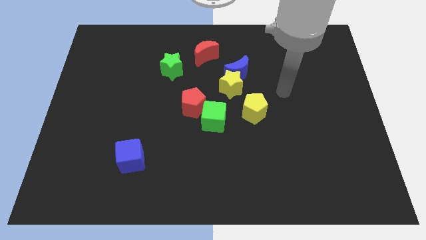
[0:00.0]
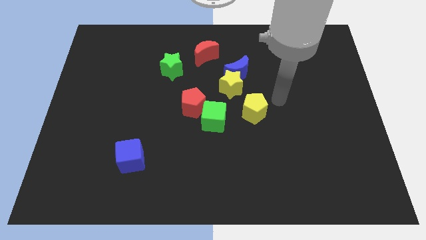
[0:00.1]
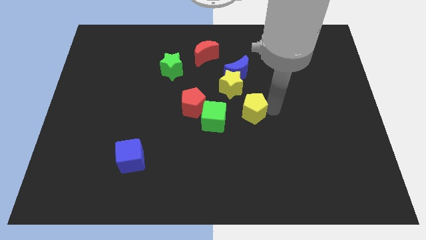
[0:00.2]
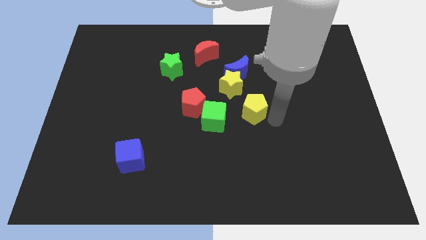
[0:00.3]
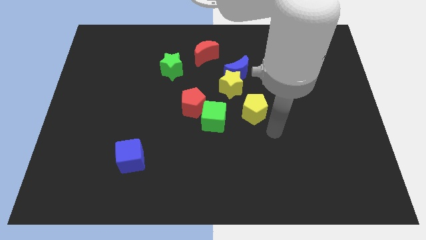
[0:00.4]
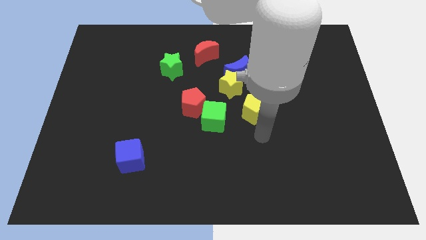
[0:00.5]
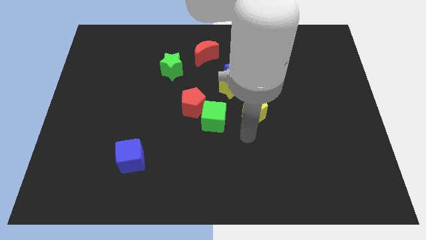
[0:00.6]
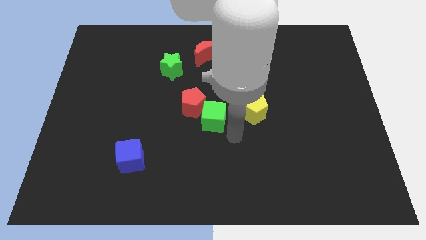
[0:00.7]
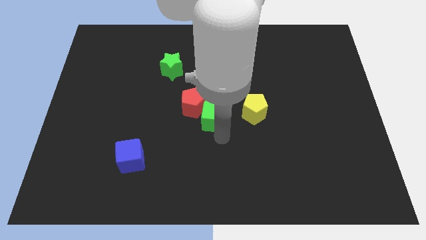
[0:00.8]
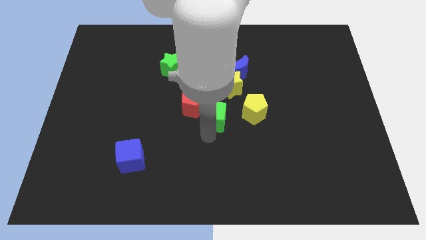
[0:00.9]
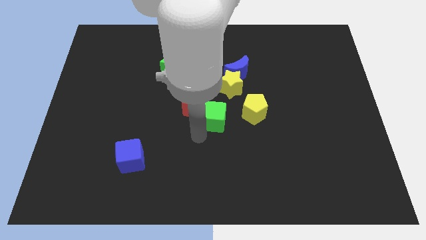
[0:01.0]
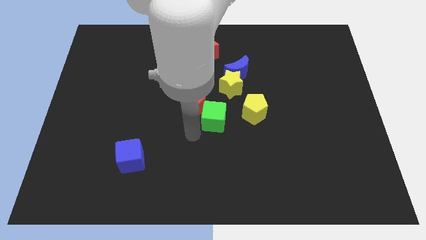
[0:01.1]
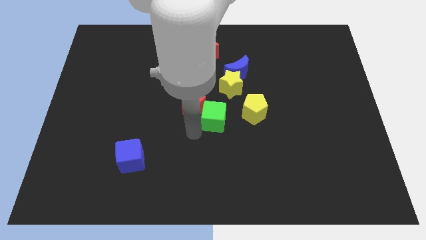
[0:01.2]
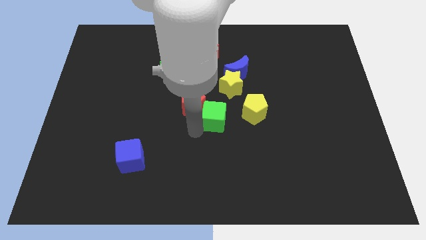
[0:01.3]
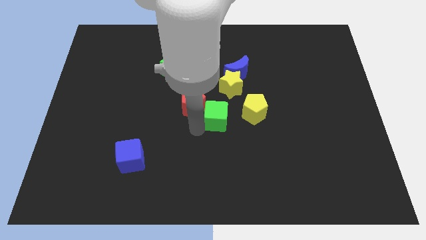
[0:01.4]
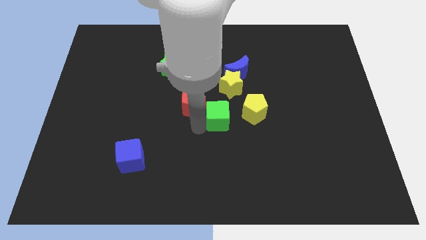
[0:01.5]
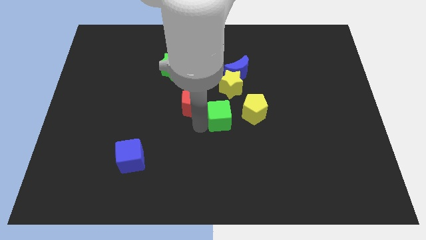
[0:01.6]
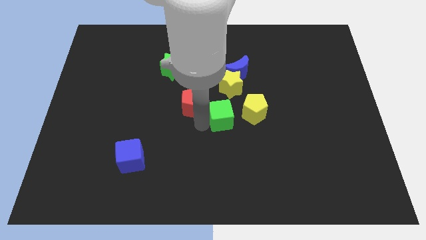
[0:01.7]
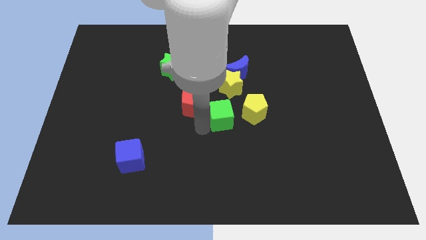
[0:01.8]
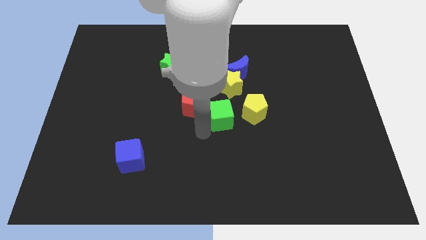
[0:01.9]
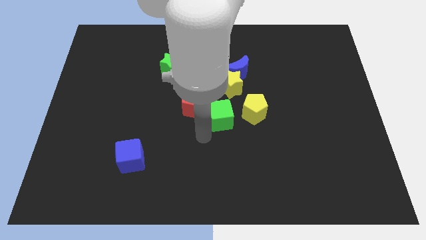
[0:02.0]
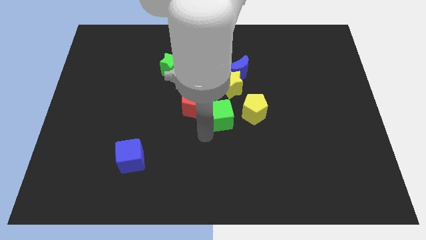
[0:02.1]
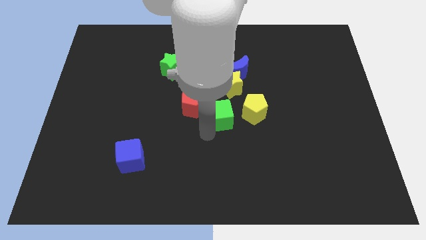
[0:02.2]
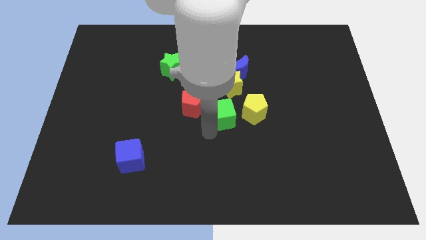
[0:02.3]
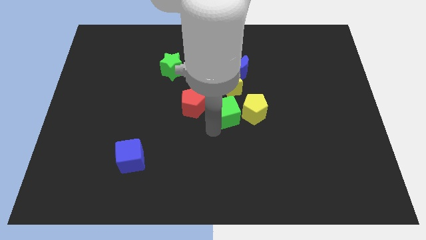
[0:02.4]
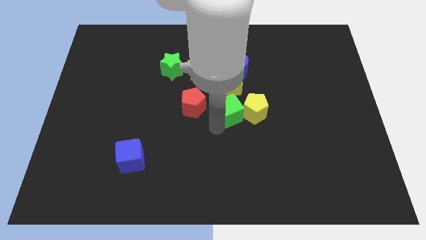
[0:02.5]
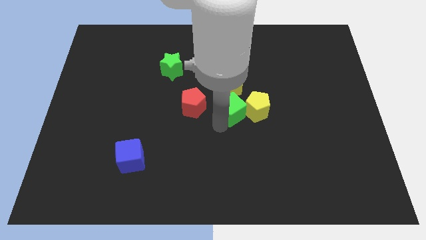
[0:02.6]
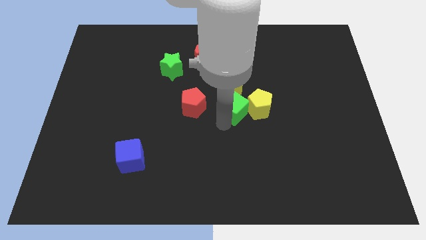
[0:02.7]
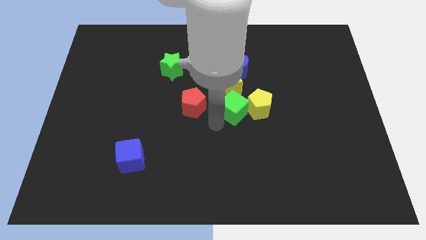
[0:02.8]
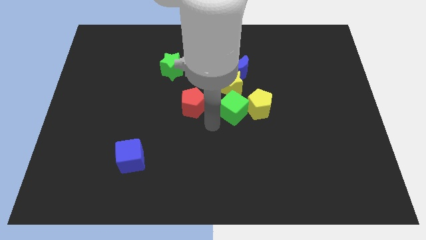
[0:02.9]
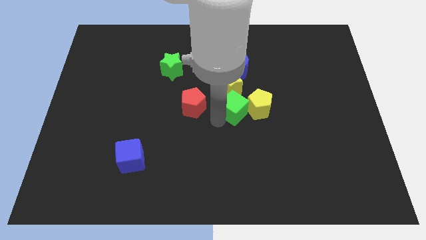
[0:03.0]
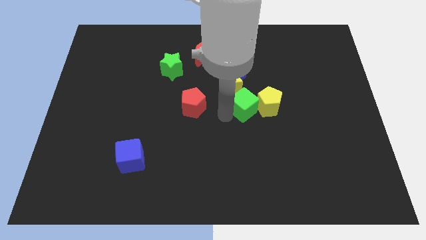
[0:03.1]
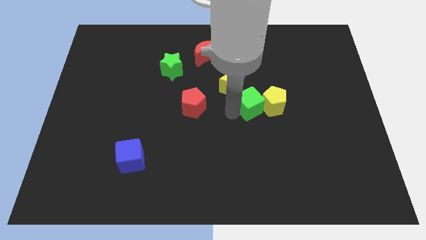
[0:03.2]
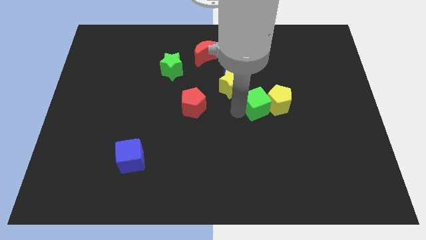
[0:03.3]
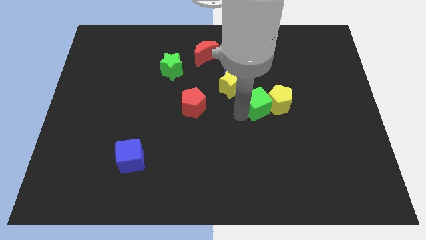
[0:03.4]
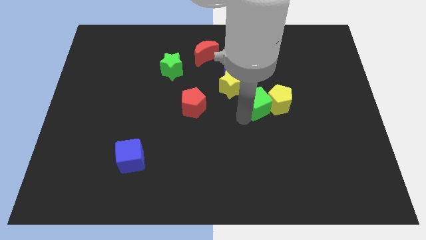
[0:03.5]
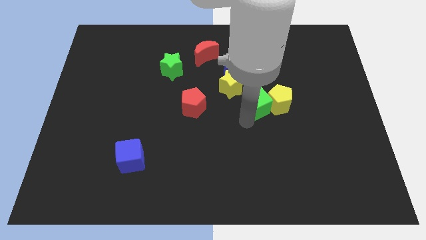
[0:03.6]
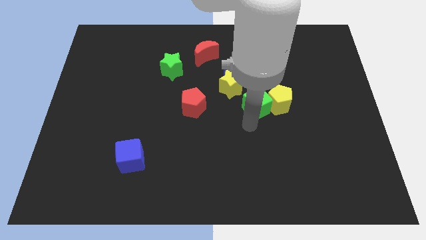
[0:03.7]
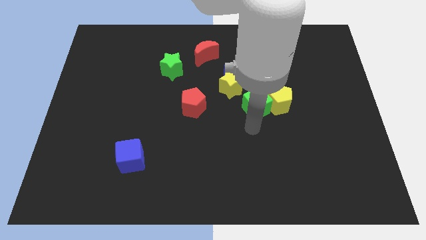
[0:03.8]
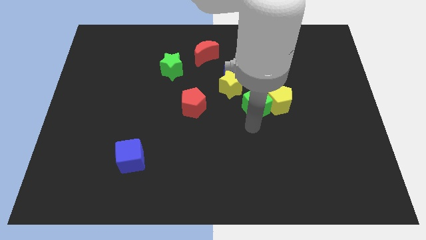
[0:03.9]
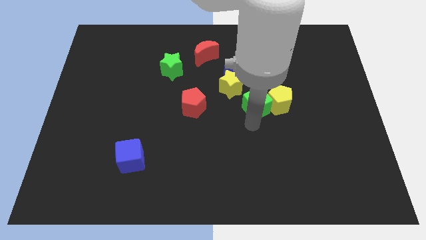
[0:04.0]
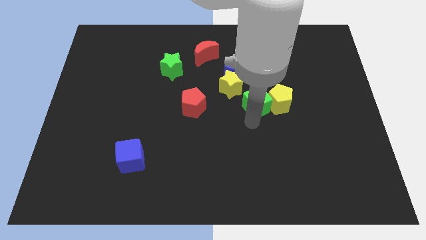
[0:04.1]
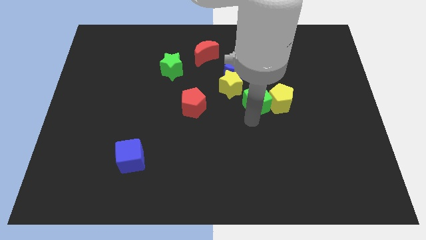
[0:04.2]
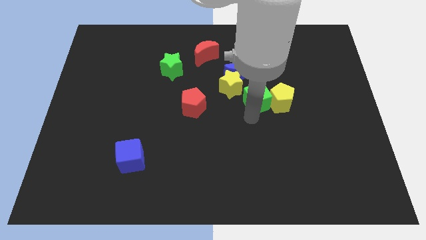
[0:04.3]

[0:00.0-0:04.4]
push the green cube right of the yellow star

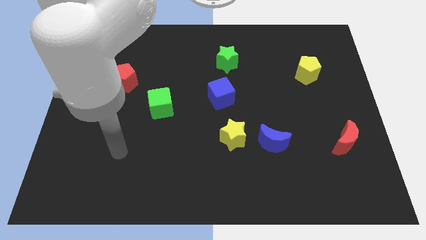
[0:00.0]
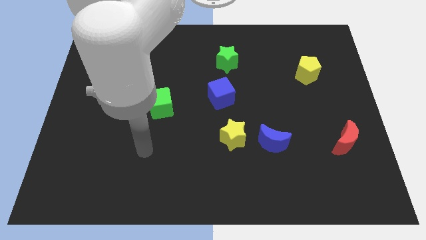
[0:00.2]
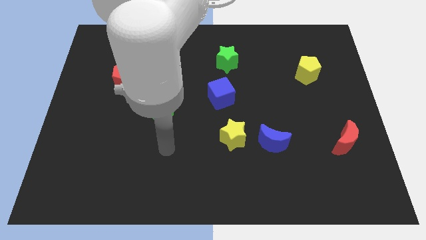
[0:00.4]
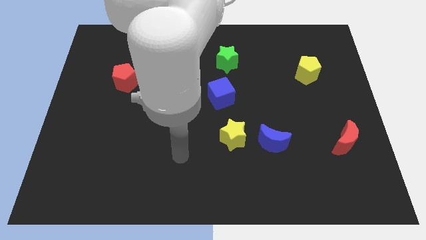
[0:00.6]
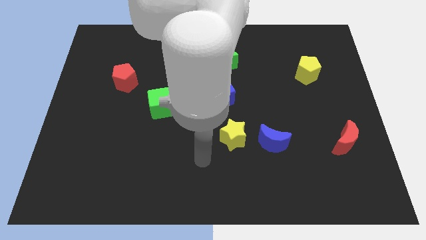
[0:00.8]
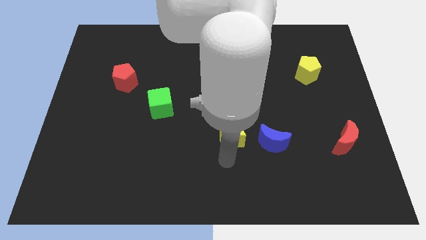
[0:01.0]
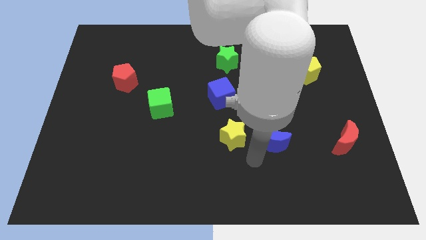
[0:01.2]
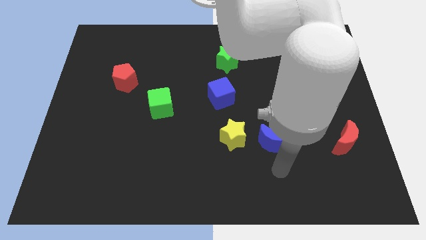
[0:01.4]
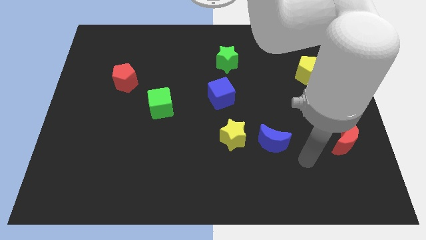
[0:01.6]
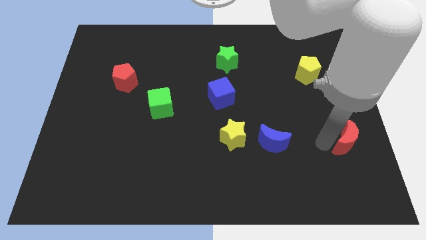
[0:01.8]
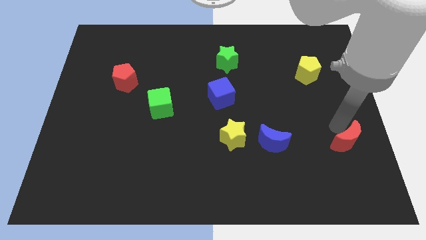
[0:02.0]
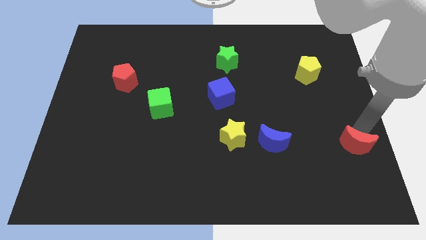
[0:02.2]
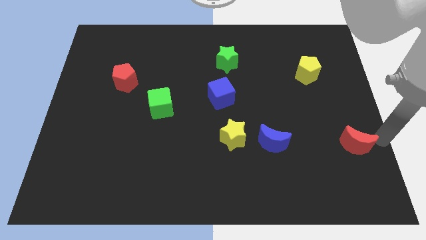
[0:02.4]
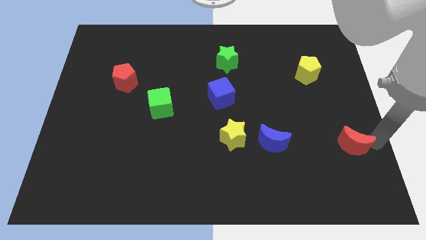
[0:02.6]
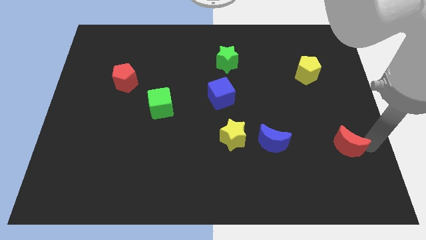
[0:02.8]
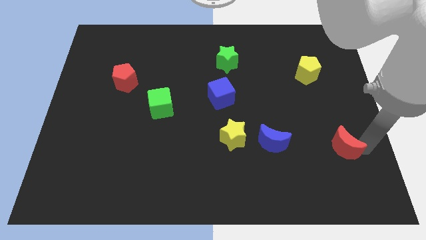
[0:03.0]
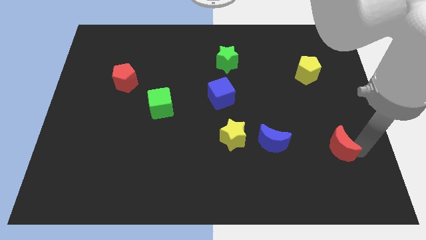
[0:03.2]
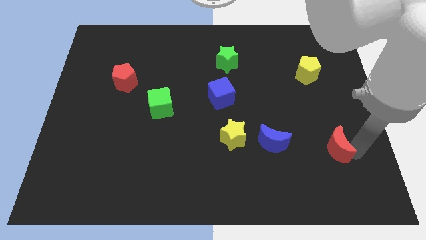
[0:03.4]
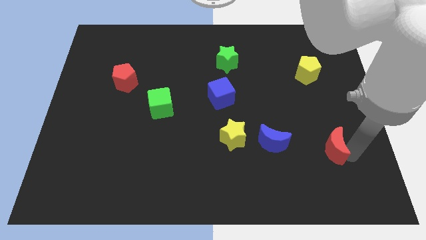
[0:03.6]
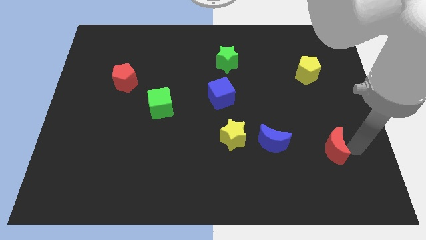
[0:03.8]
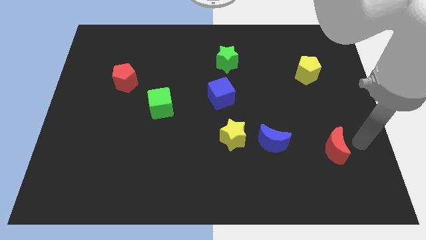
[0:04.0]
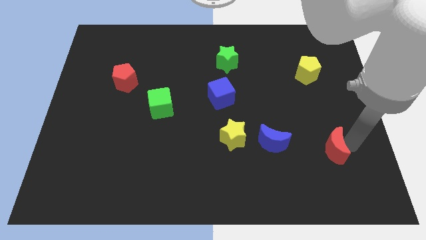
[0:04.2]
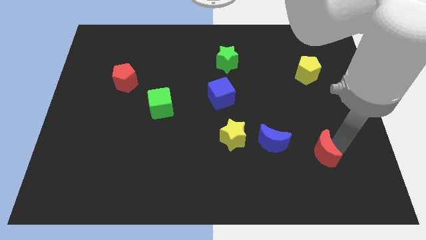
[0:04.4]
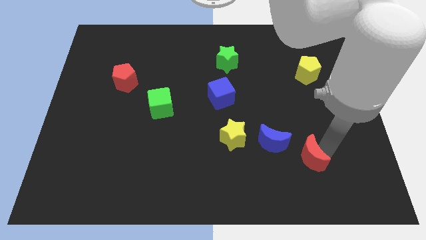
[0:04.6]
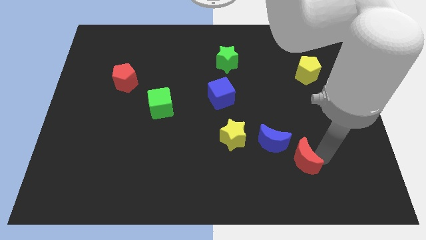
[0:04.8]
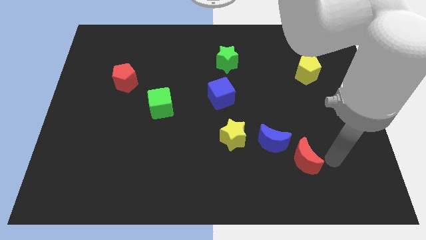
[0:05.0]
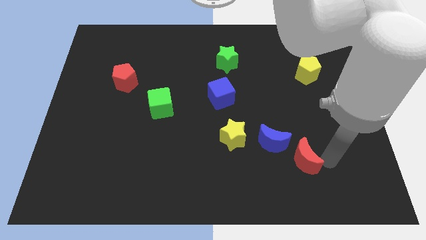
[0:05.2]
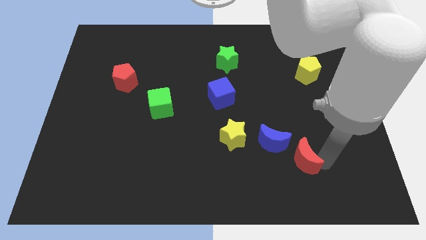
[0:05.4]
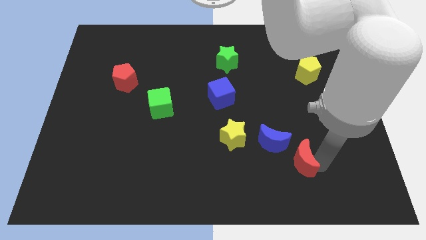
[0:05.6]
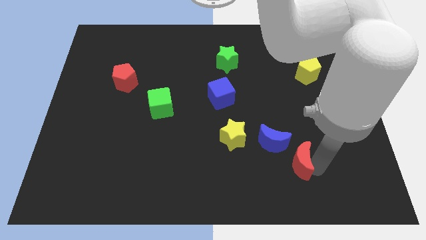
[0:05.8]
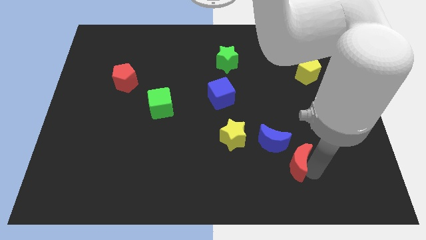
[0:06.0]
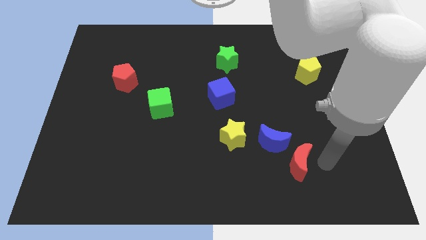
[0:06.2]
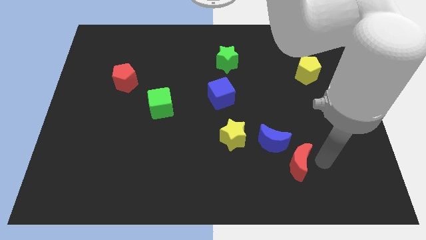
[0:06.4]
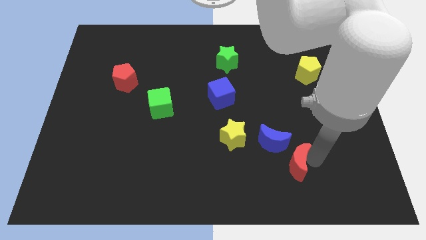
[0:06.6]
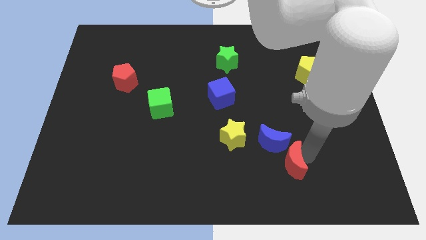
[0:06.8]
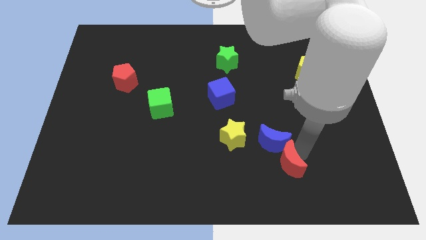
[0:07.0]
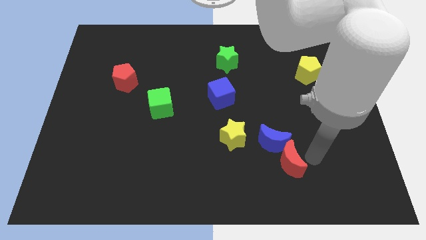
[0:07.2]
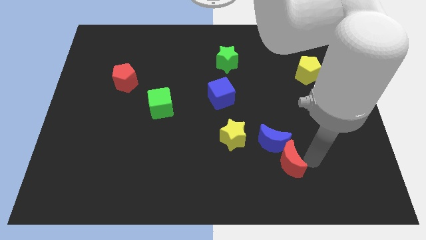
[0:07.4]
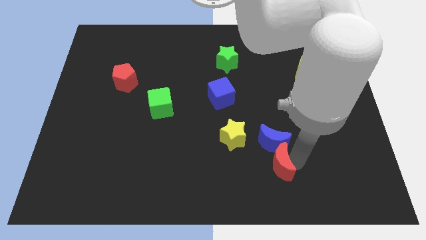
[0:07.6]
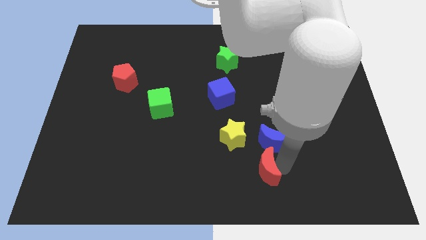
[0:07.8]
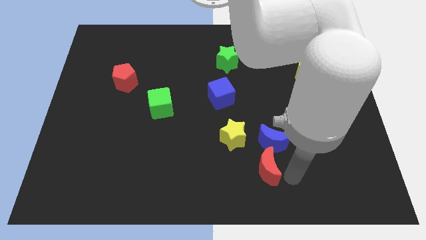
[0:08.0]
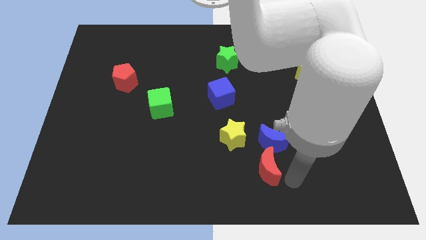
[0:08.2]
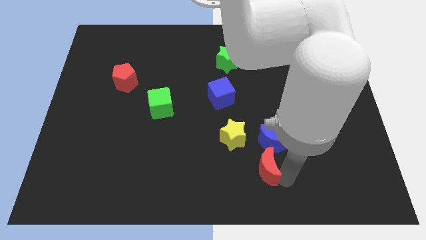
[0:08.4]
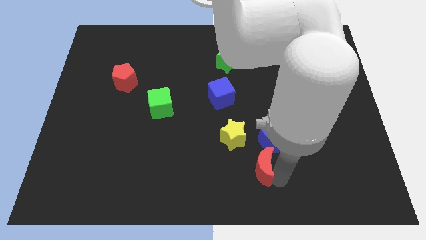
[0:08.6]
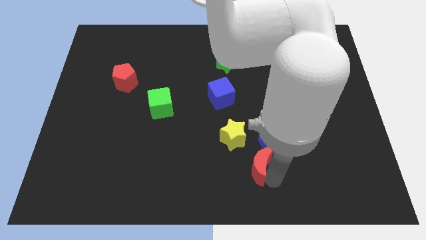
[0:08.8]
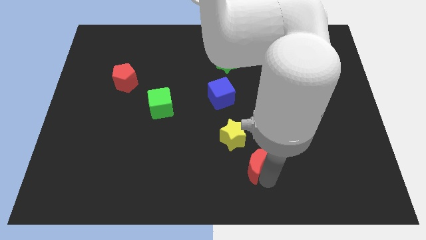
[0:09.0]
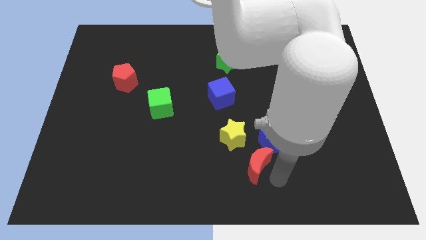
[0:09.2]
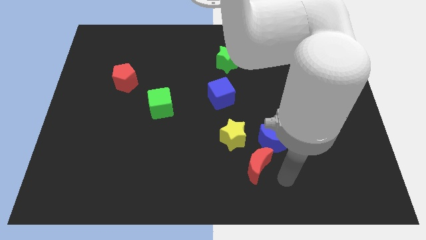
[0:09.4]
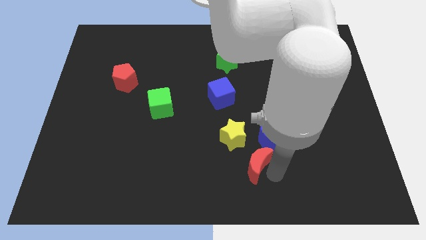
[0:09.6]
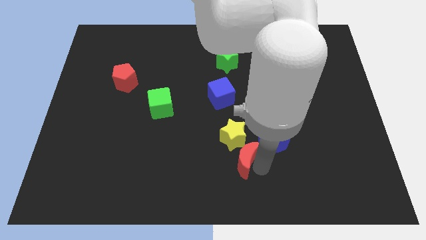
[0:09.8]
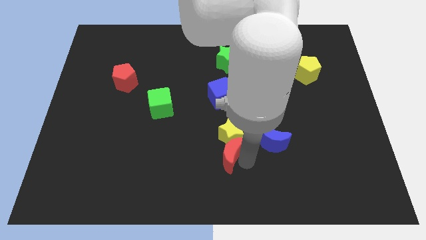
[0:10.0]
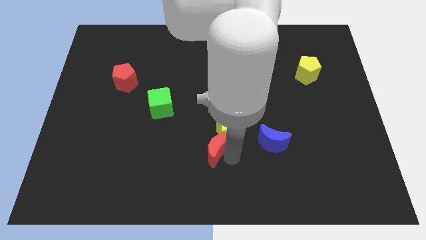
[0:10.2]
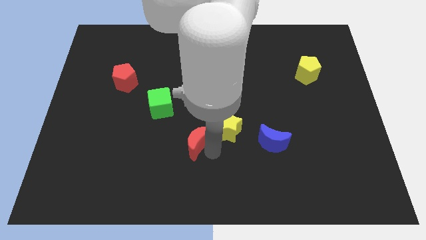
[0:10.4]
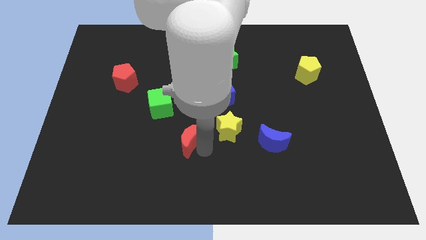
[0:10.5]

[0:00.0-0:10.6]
move the red moon diagonally down and to the right of the green cube
